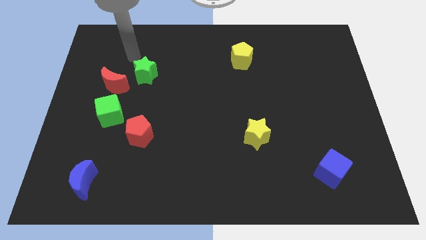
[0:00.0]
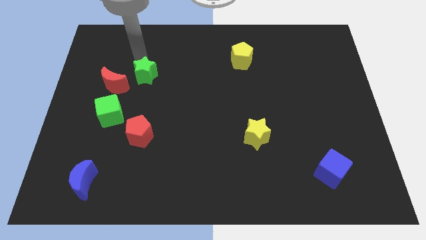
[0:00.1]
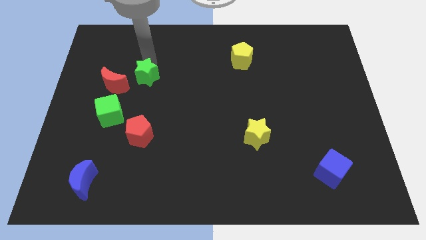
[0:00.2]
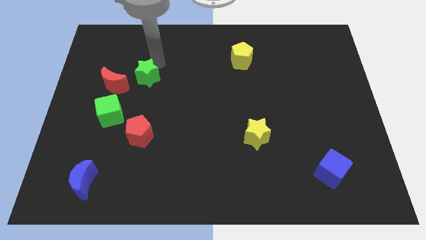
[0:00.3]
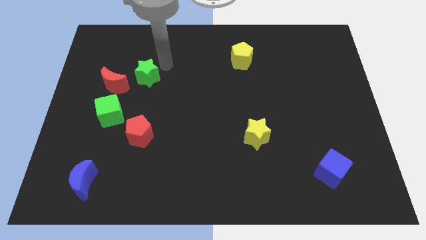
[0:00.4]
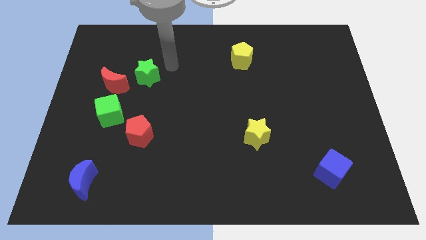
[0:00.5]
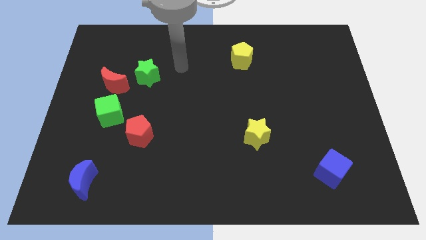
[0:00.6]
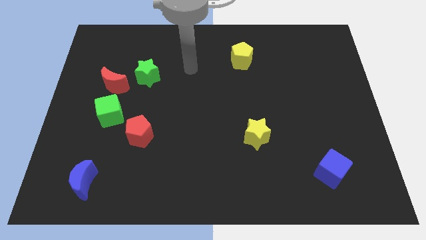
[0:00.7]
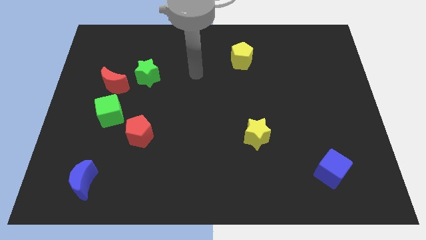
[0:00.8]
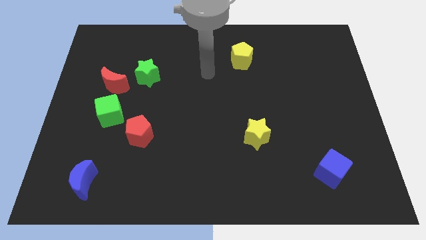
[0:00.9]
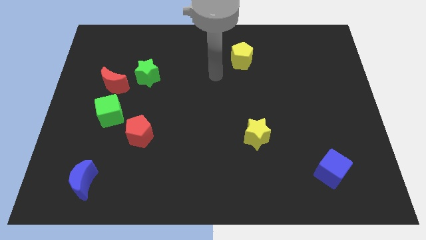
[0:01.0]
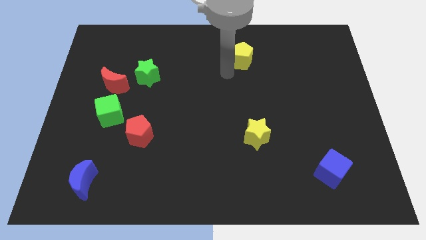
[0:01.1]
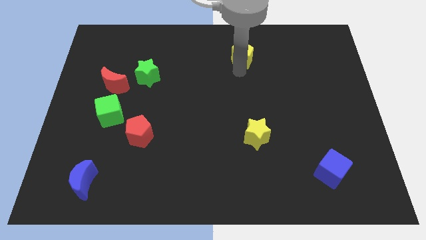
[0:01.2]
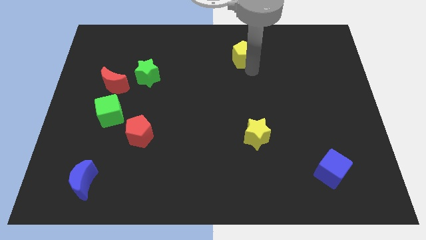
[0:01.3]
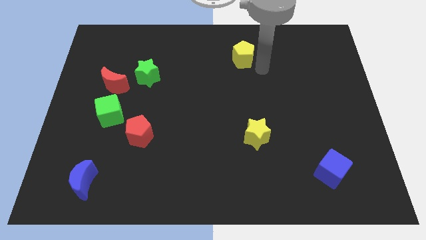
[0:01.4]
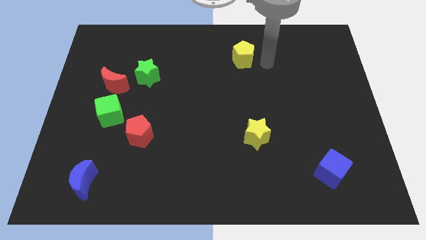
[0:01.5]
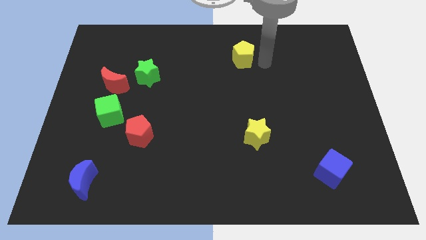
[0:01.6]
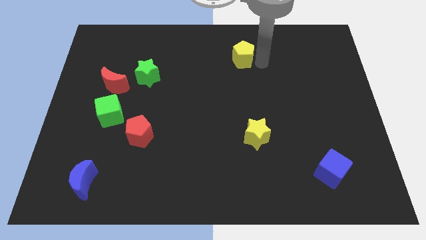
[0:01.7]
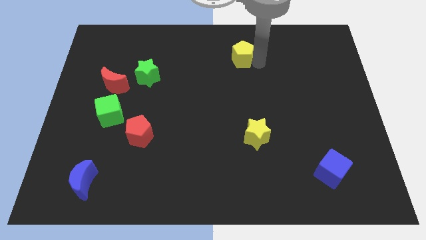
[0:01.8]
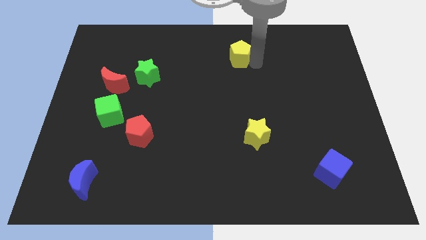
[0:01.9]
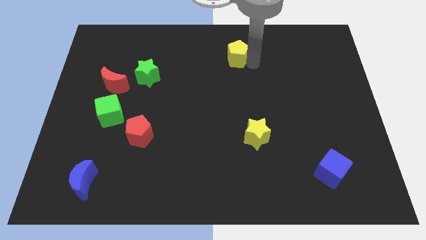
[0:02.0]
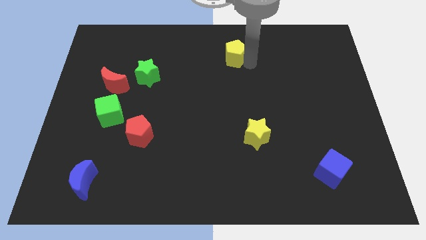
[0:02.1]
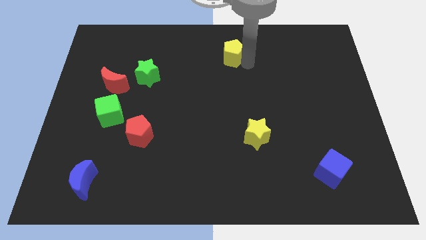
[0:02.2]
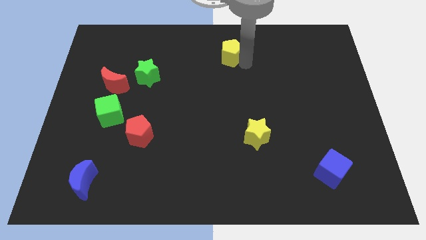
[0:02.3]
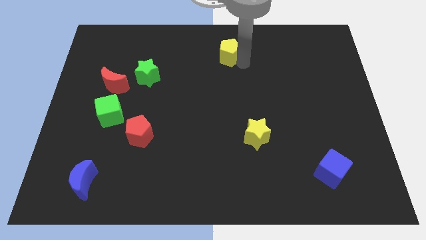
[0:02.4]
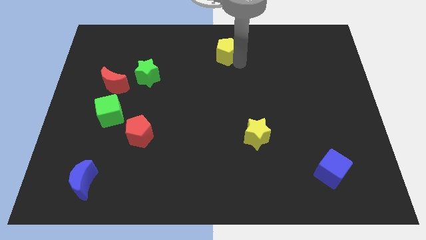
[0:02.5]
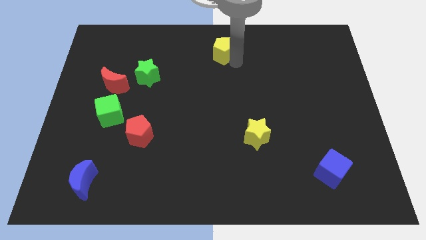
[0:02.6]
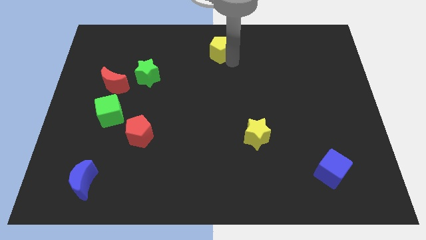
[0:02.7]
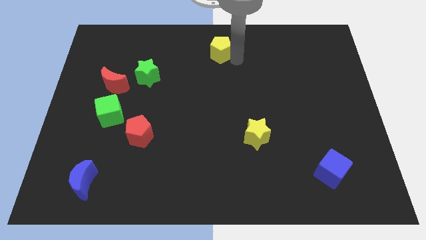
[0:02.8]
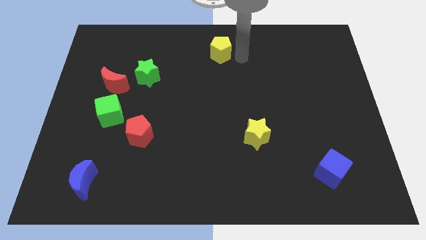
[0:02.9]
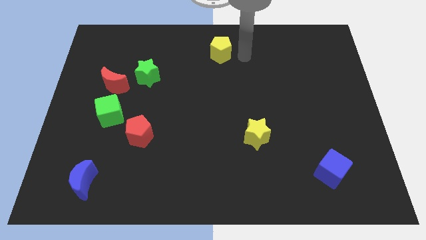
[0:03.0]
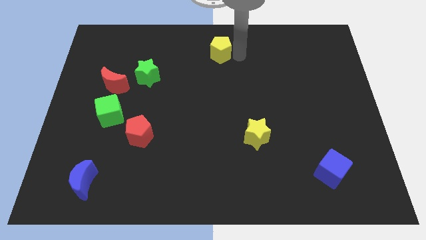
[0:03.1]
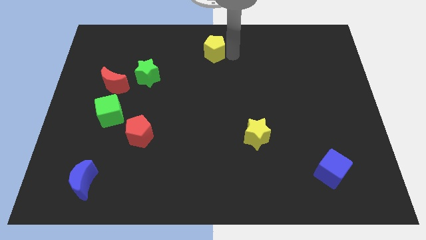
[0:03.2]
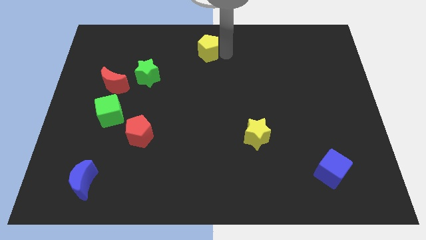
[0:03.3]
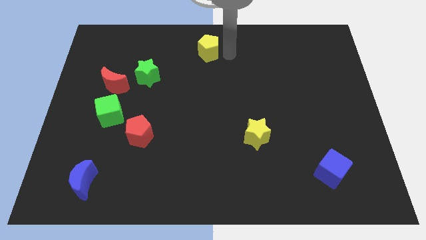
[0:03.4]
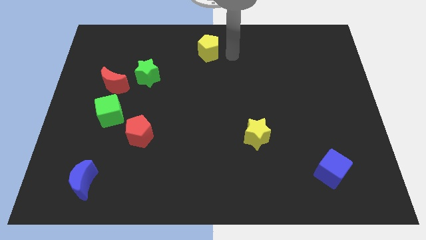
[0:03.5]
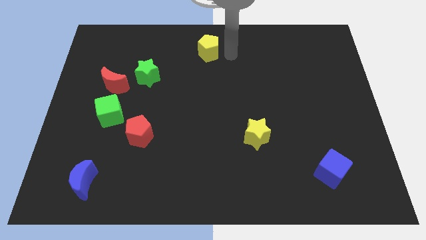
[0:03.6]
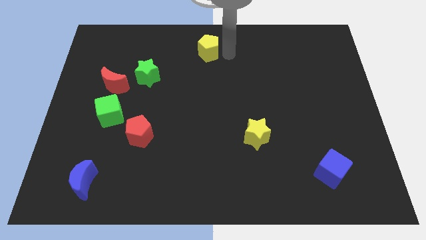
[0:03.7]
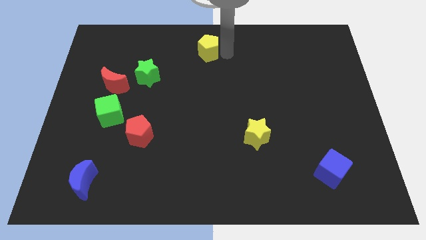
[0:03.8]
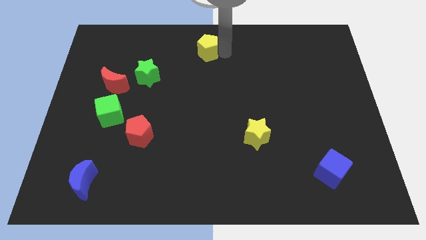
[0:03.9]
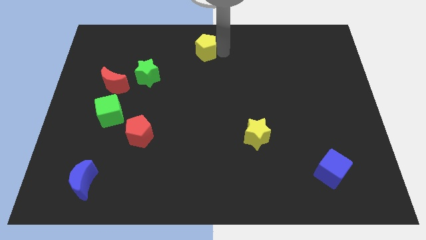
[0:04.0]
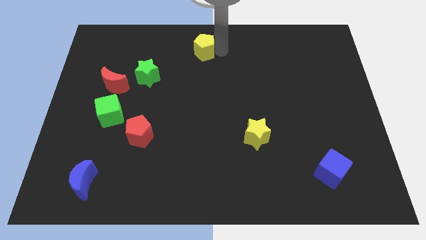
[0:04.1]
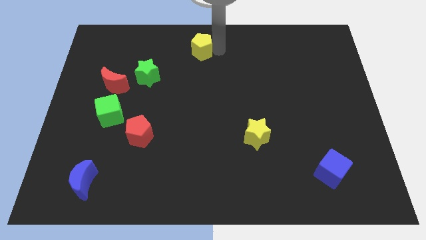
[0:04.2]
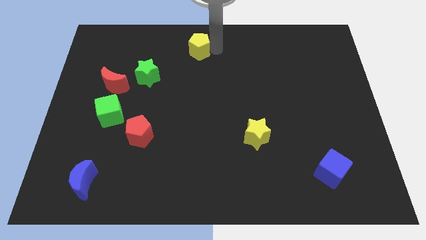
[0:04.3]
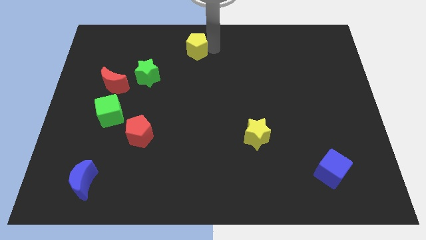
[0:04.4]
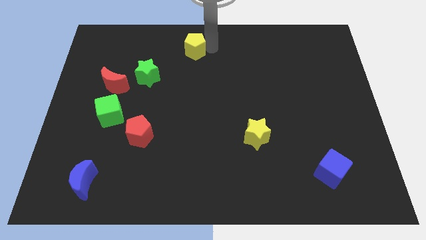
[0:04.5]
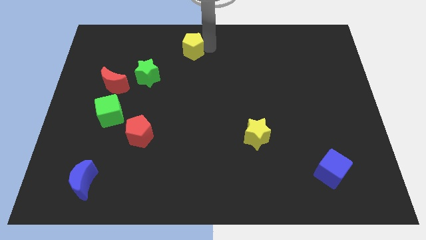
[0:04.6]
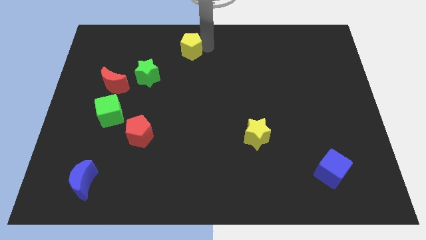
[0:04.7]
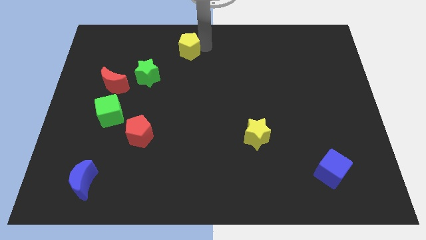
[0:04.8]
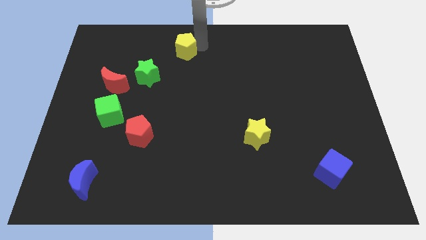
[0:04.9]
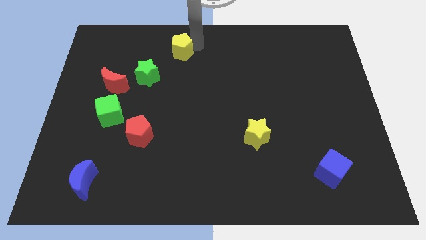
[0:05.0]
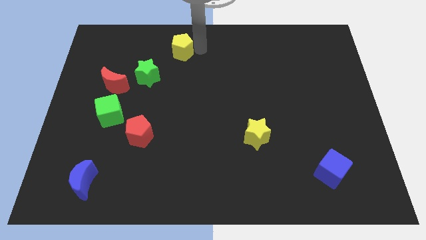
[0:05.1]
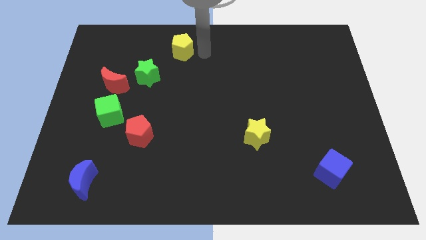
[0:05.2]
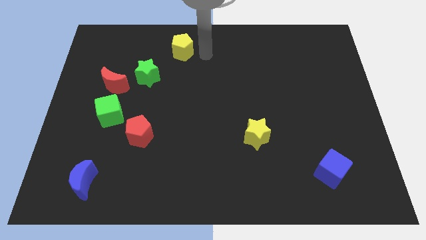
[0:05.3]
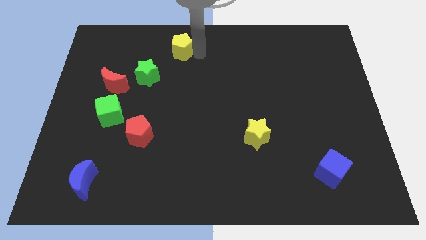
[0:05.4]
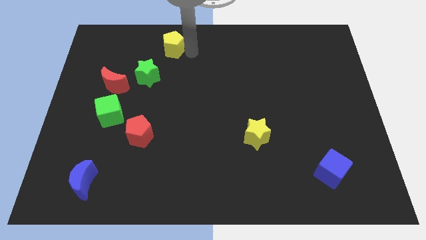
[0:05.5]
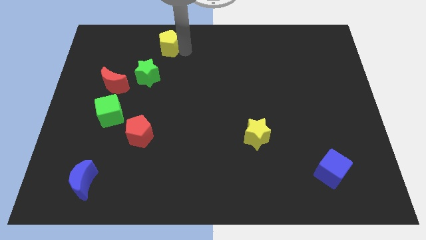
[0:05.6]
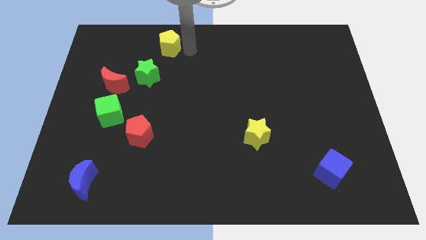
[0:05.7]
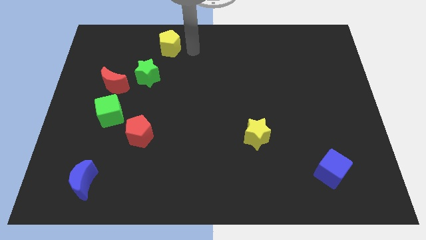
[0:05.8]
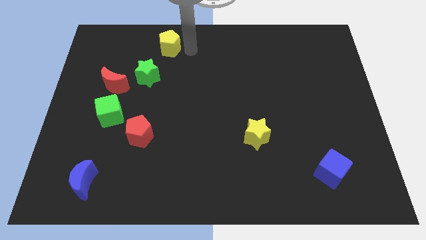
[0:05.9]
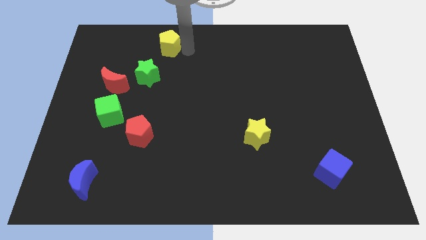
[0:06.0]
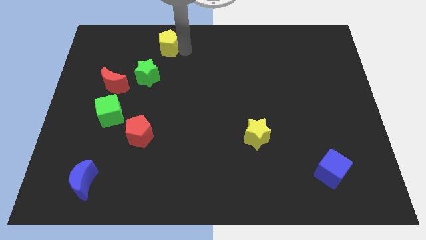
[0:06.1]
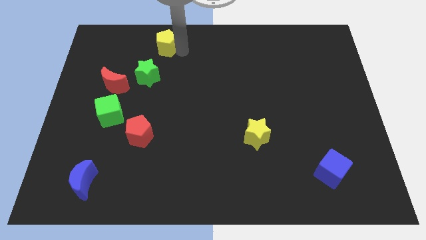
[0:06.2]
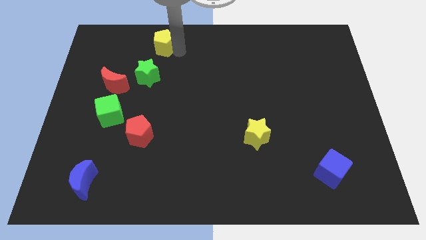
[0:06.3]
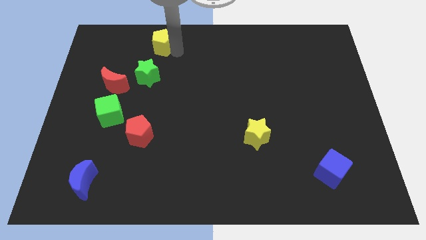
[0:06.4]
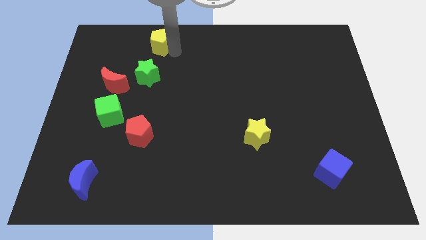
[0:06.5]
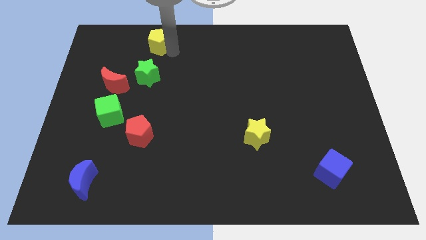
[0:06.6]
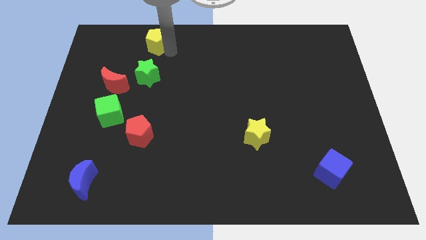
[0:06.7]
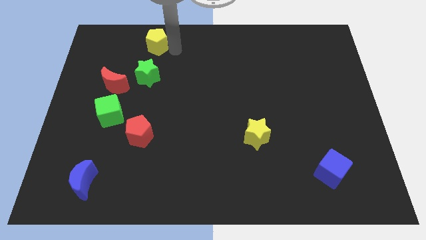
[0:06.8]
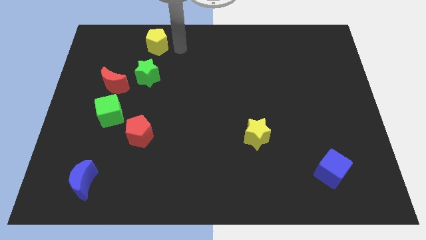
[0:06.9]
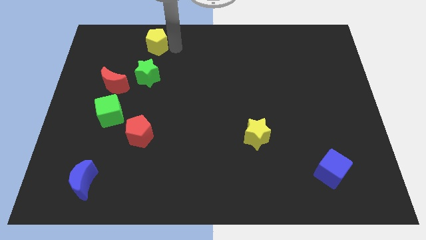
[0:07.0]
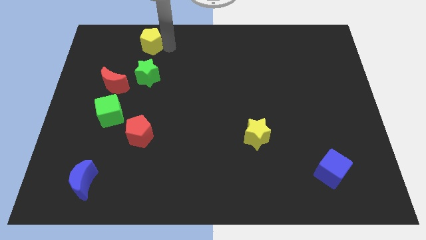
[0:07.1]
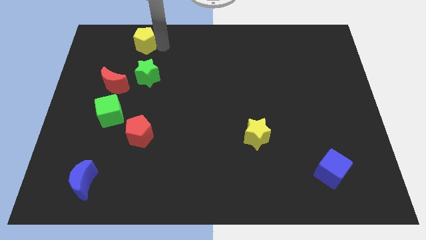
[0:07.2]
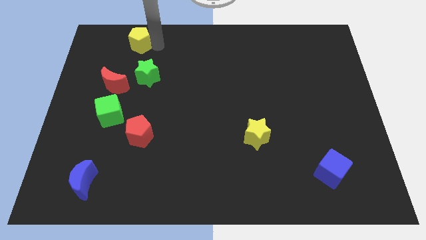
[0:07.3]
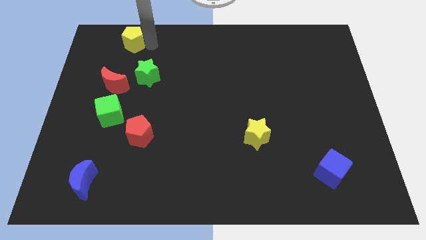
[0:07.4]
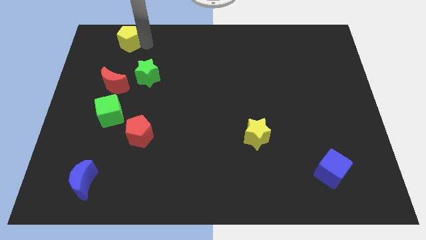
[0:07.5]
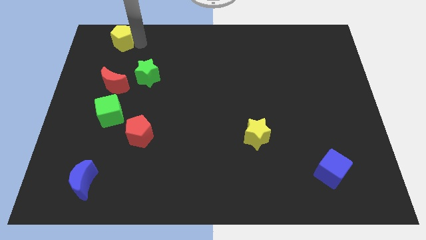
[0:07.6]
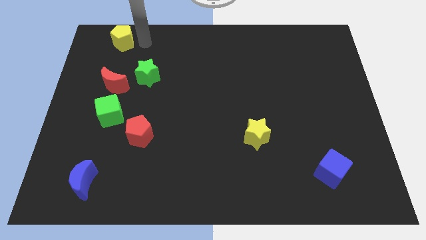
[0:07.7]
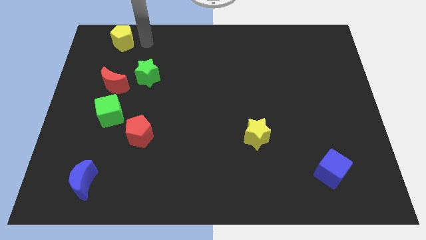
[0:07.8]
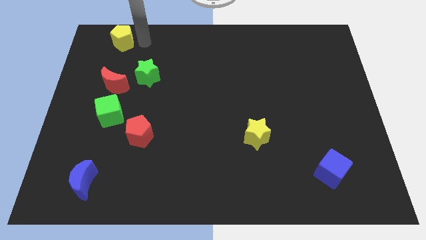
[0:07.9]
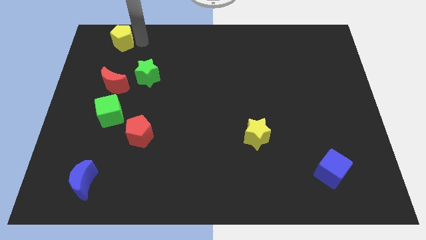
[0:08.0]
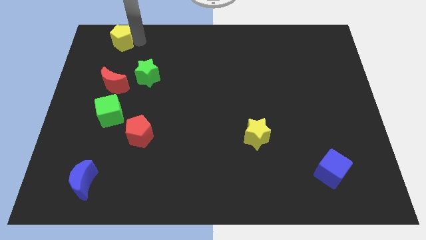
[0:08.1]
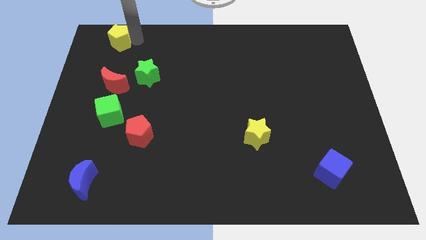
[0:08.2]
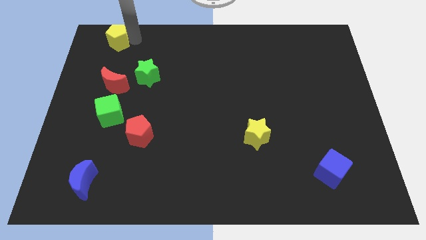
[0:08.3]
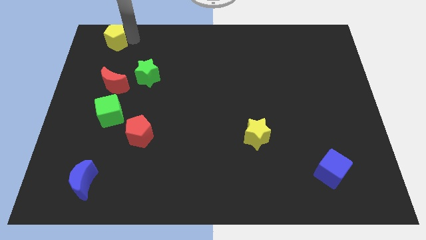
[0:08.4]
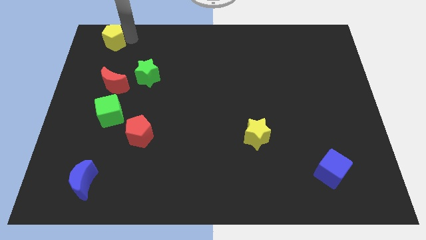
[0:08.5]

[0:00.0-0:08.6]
slide the yellow pentagon to the upper left corner
